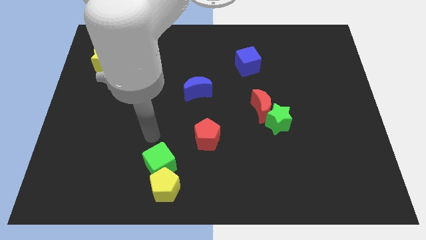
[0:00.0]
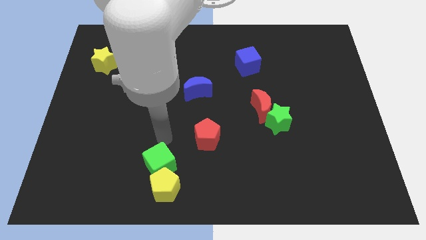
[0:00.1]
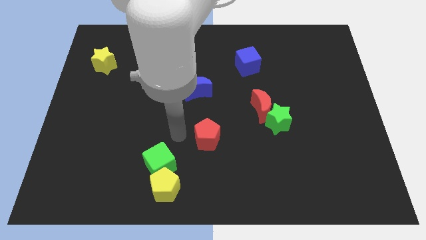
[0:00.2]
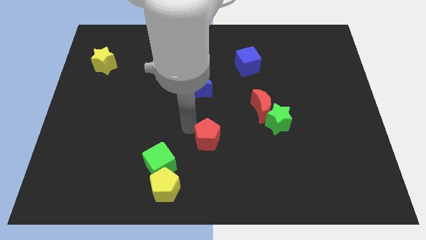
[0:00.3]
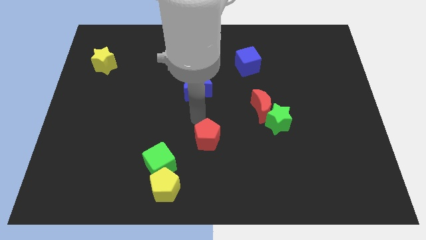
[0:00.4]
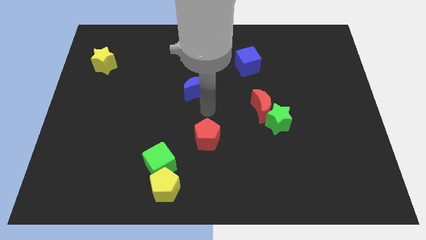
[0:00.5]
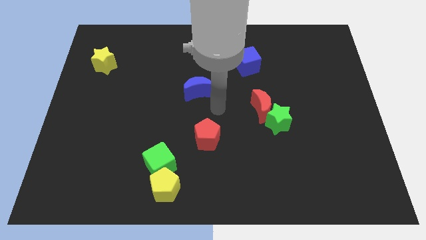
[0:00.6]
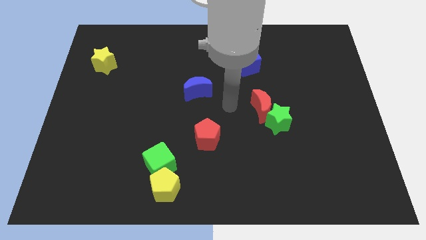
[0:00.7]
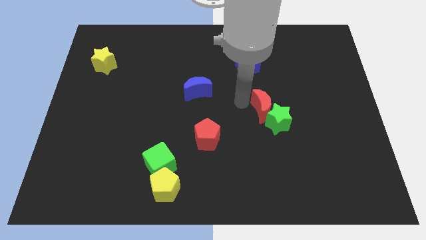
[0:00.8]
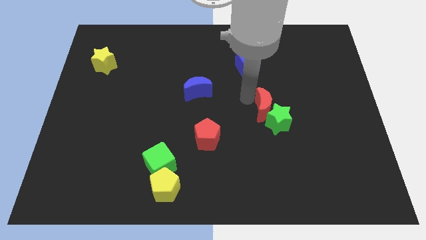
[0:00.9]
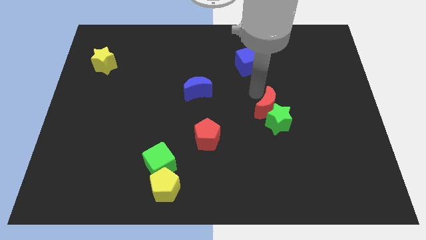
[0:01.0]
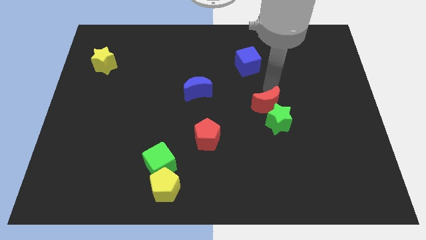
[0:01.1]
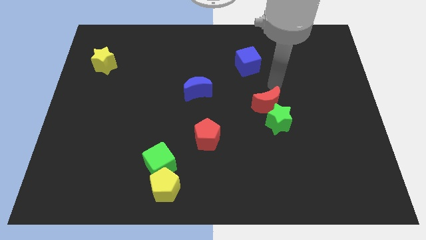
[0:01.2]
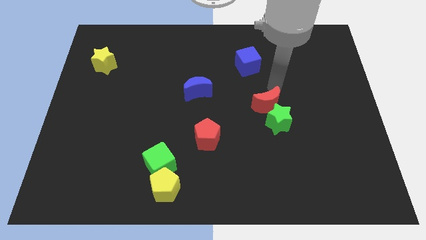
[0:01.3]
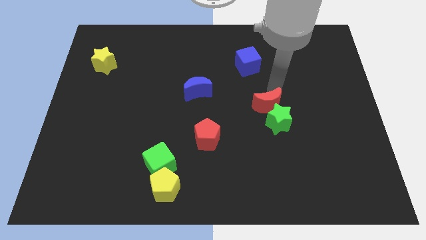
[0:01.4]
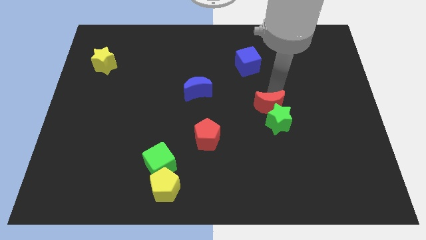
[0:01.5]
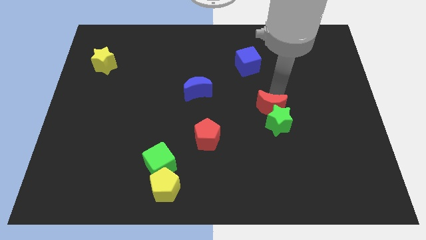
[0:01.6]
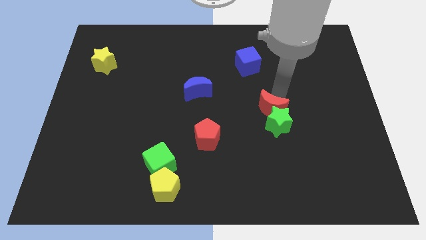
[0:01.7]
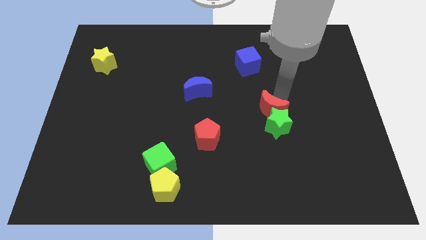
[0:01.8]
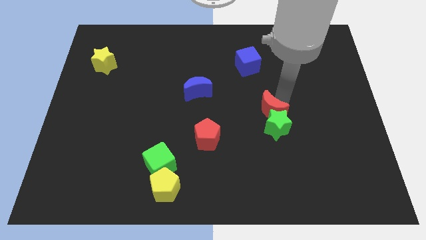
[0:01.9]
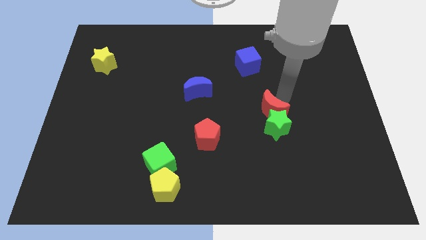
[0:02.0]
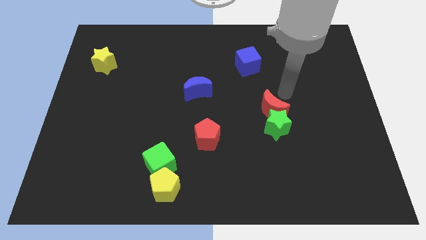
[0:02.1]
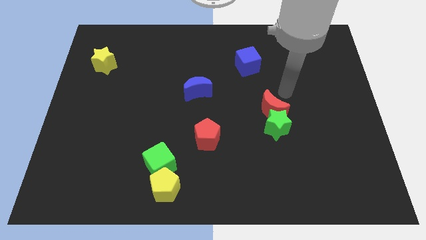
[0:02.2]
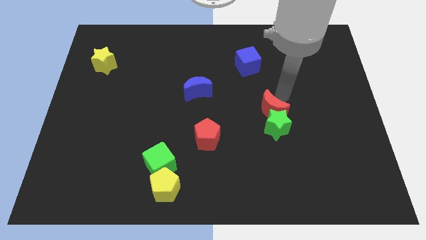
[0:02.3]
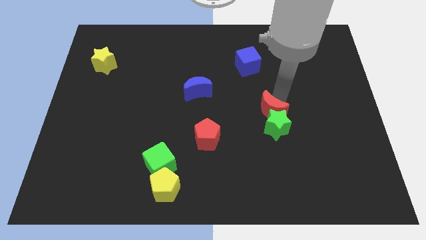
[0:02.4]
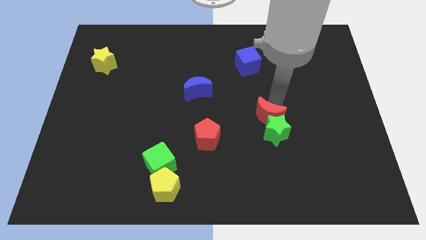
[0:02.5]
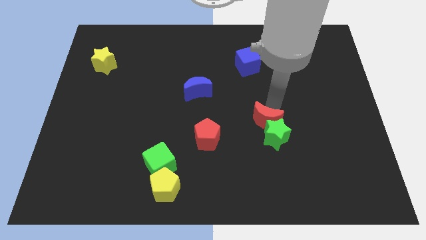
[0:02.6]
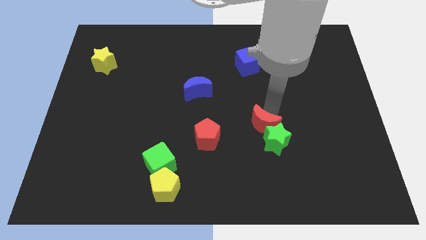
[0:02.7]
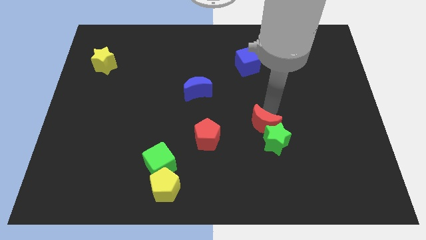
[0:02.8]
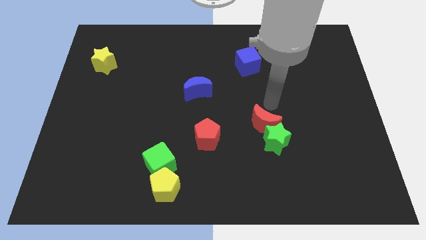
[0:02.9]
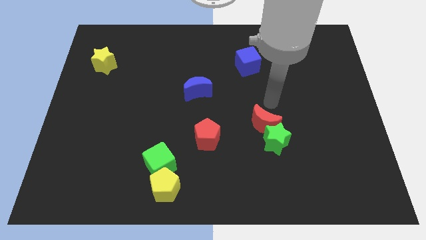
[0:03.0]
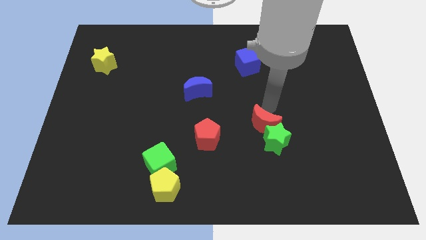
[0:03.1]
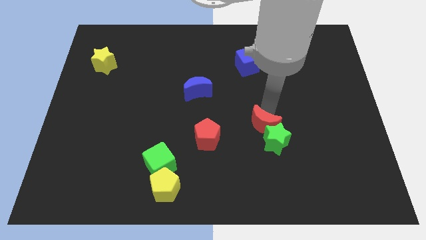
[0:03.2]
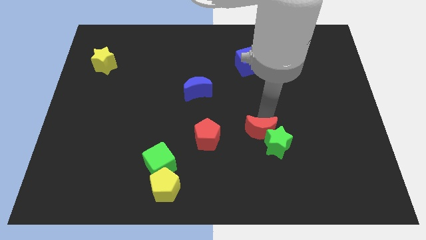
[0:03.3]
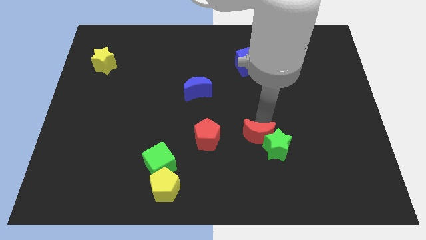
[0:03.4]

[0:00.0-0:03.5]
move the red moon downwards somewhat

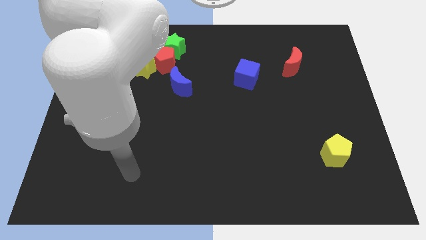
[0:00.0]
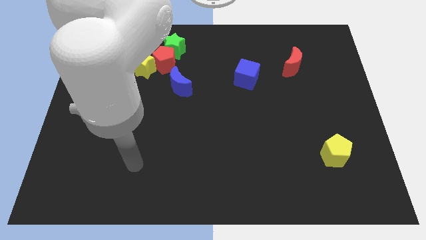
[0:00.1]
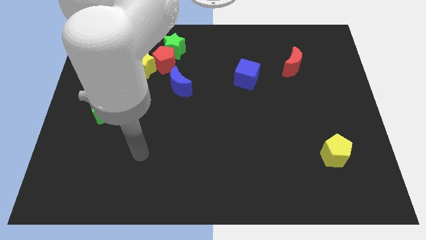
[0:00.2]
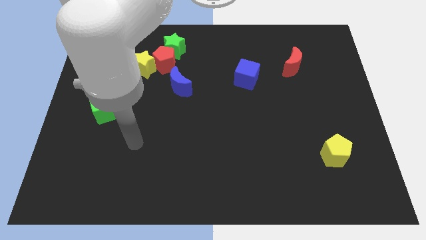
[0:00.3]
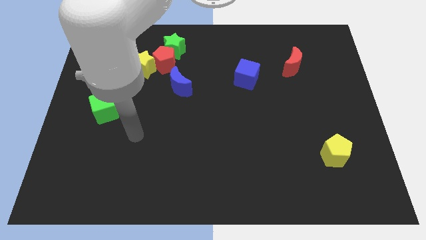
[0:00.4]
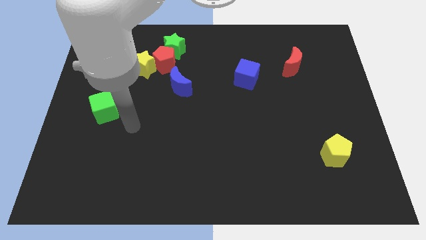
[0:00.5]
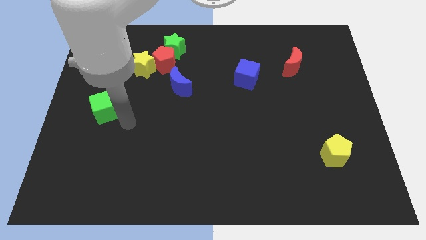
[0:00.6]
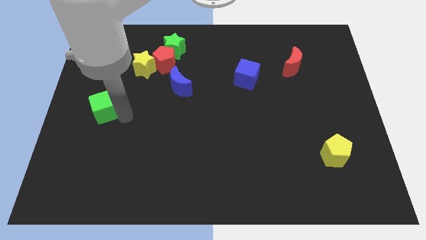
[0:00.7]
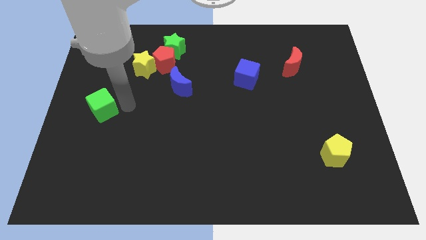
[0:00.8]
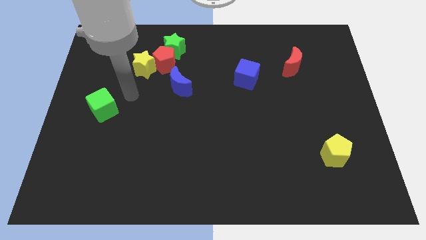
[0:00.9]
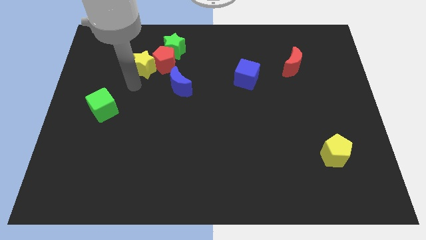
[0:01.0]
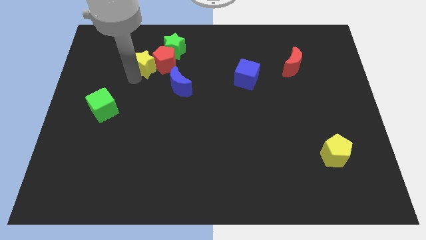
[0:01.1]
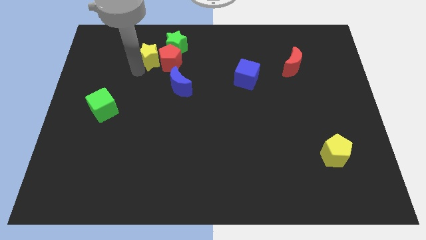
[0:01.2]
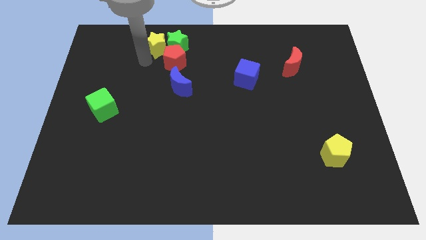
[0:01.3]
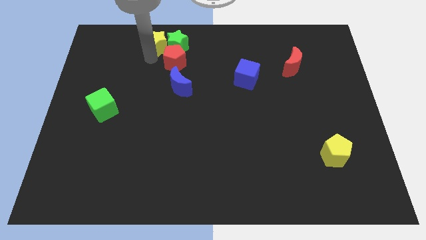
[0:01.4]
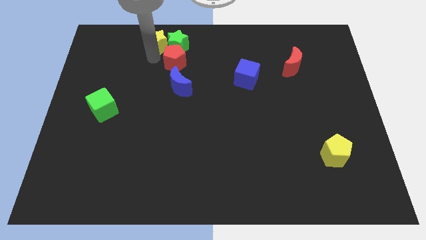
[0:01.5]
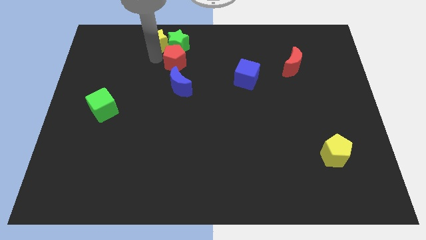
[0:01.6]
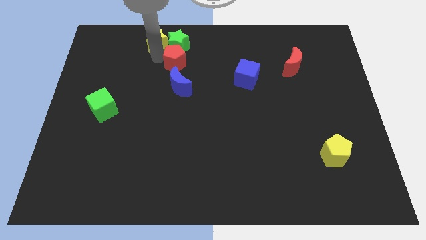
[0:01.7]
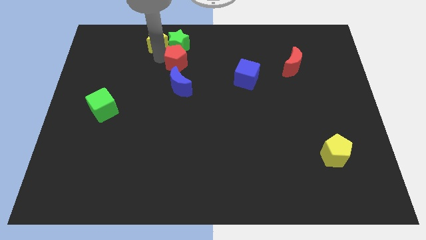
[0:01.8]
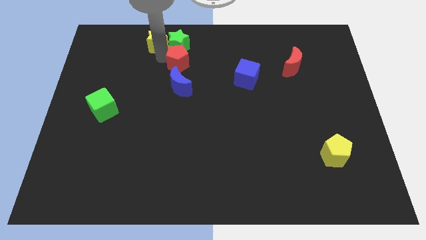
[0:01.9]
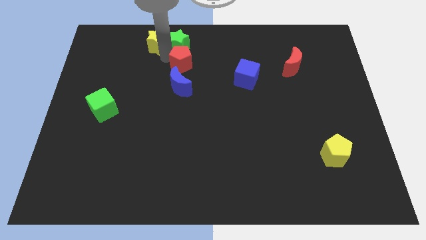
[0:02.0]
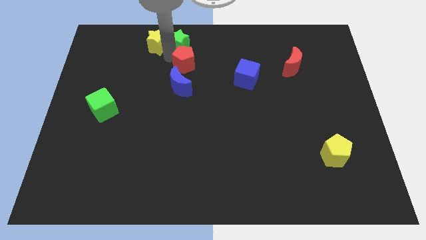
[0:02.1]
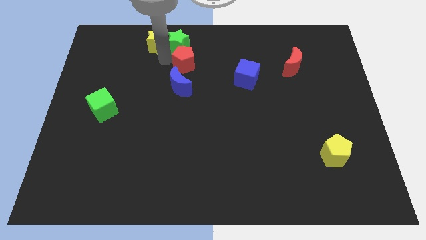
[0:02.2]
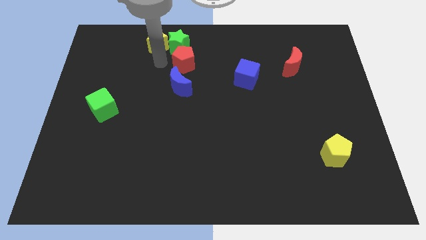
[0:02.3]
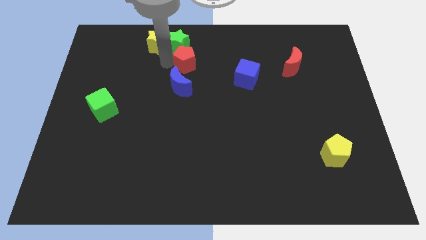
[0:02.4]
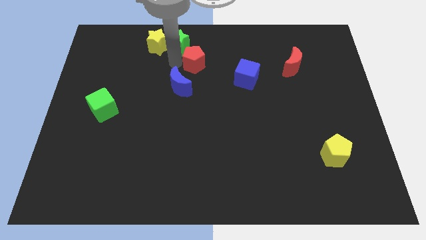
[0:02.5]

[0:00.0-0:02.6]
slide the red pentagon somewhat right

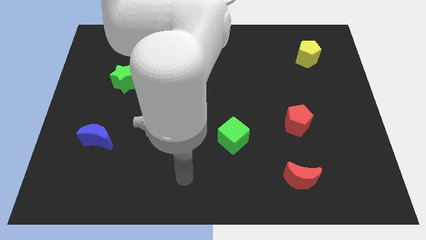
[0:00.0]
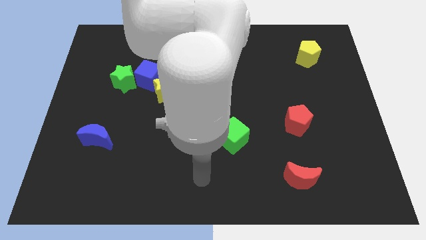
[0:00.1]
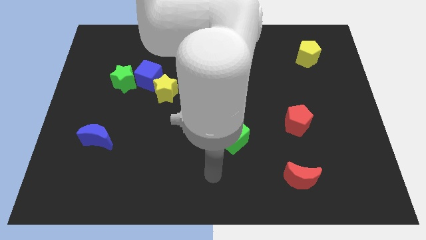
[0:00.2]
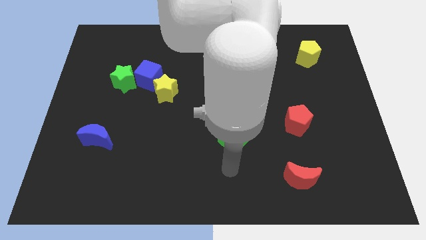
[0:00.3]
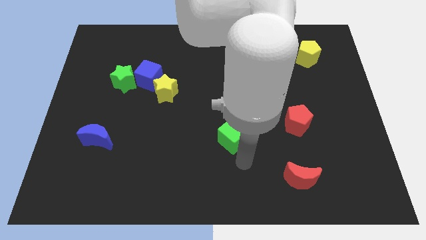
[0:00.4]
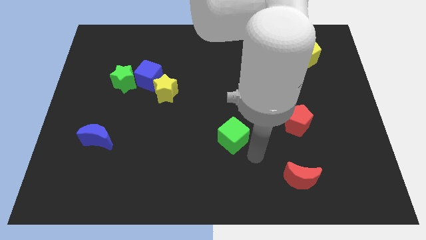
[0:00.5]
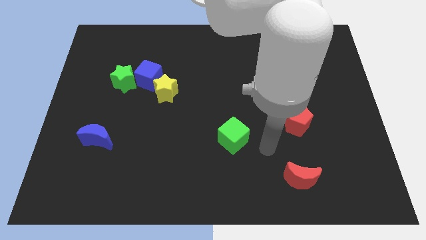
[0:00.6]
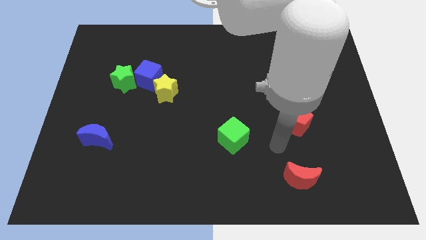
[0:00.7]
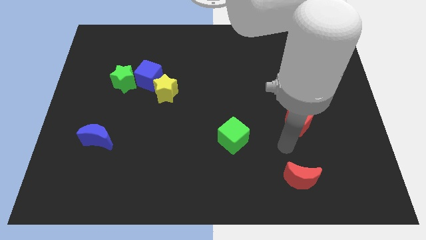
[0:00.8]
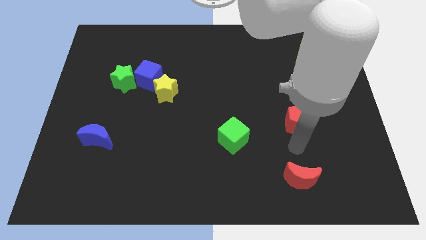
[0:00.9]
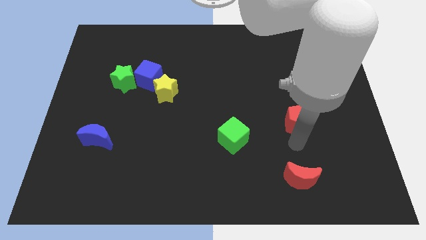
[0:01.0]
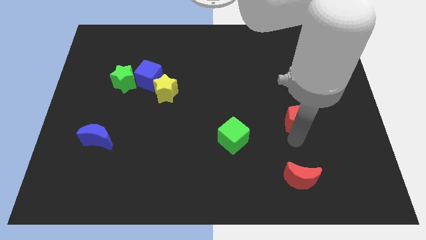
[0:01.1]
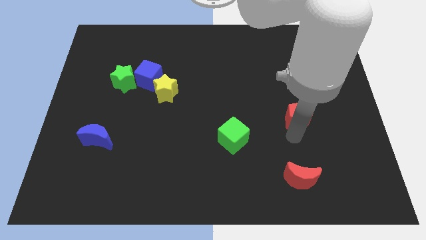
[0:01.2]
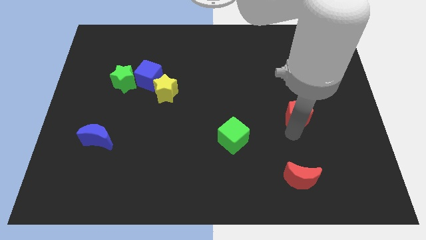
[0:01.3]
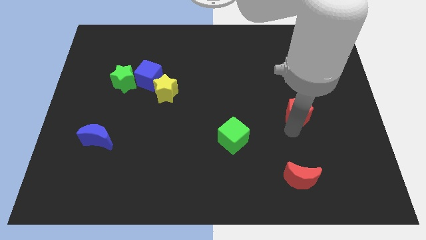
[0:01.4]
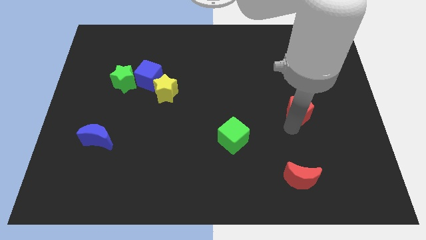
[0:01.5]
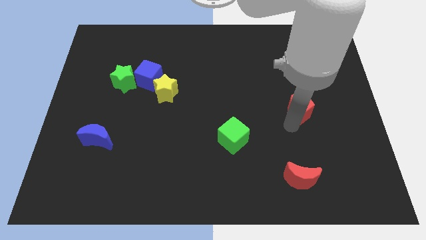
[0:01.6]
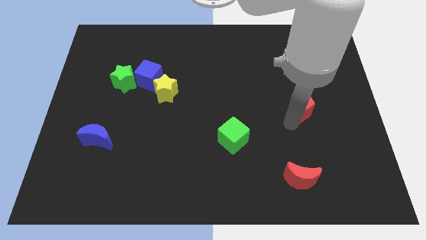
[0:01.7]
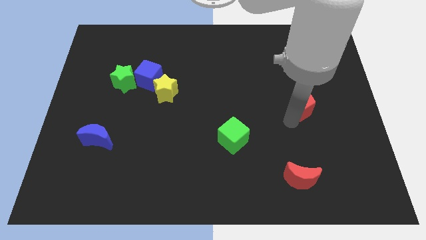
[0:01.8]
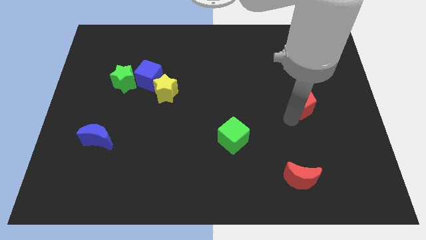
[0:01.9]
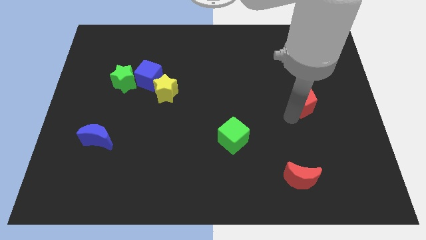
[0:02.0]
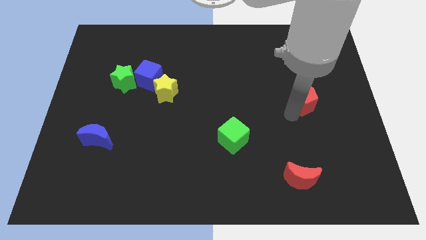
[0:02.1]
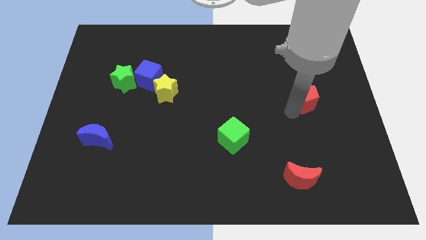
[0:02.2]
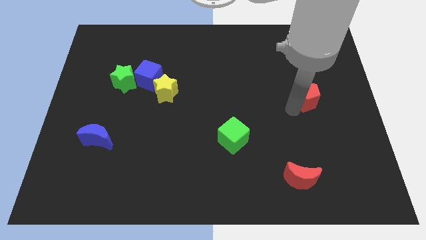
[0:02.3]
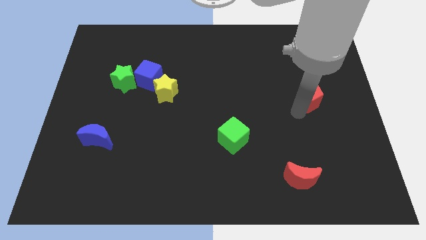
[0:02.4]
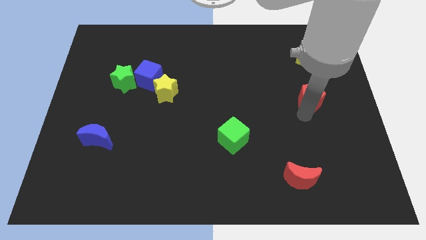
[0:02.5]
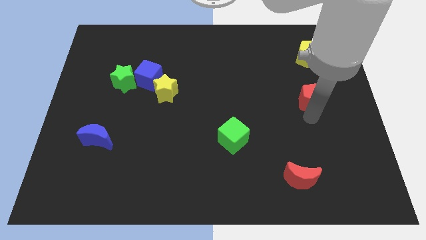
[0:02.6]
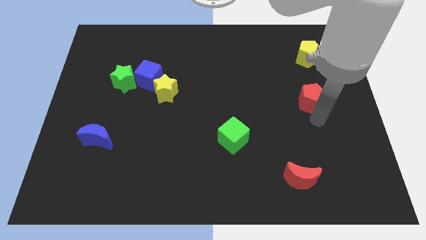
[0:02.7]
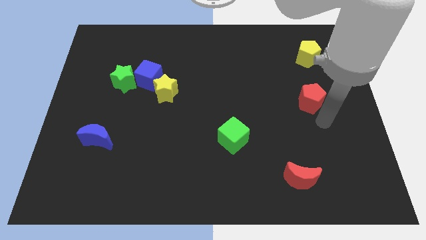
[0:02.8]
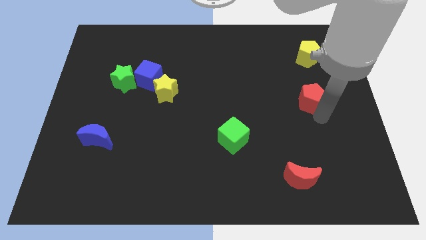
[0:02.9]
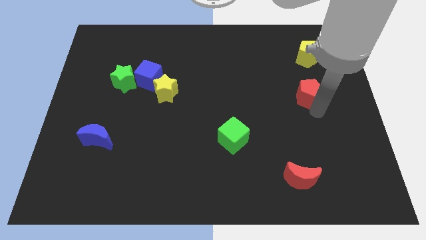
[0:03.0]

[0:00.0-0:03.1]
slightly slide the red pentagon up
